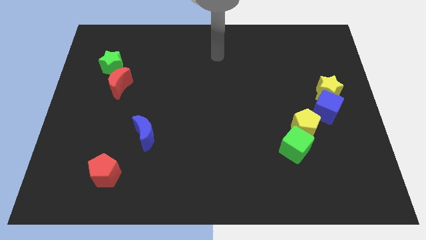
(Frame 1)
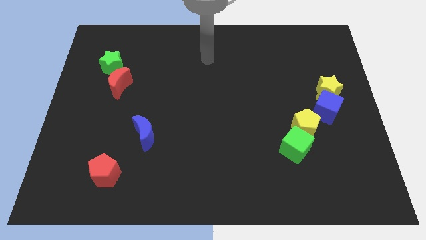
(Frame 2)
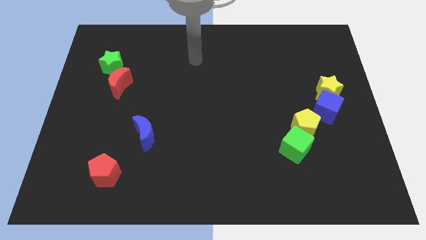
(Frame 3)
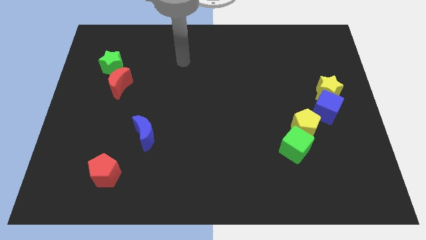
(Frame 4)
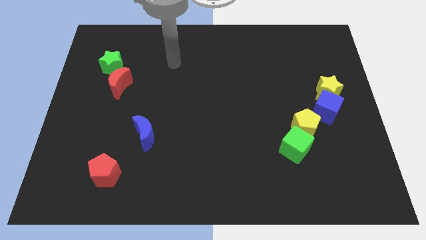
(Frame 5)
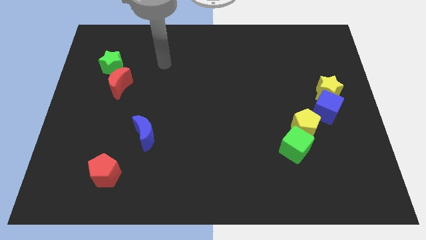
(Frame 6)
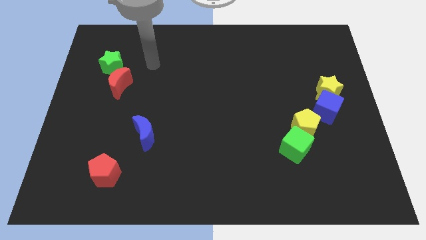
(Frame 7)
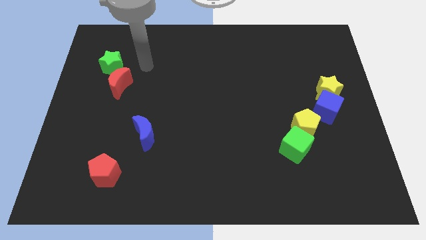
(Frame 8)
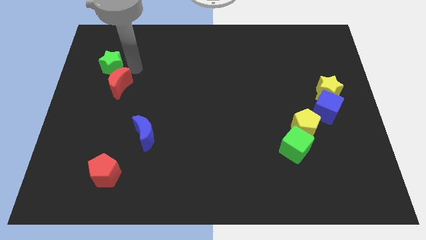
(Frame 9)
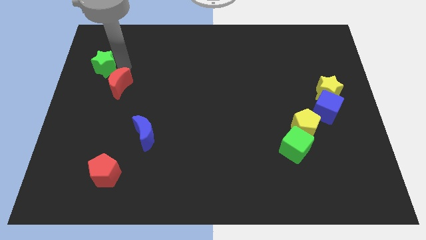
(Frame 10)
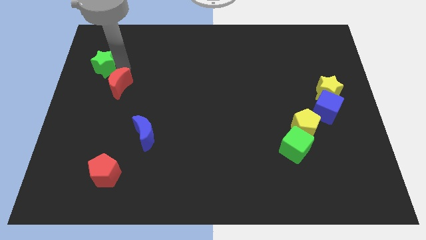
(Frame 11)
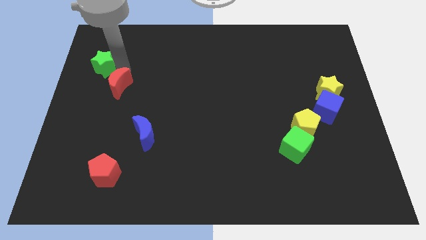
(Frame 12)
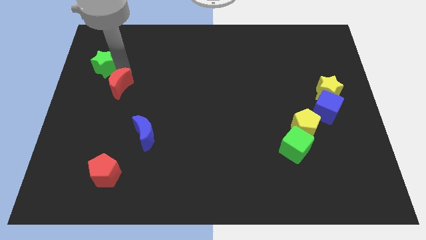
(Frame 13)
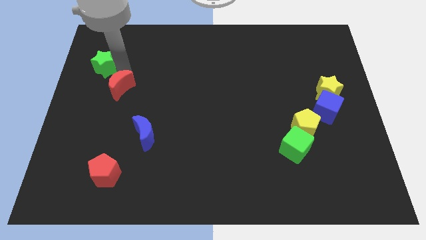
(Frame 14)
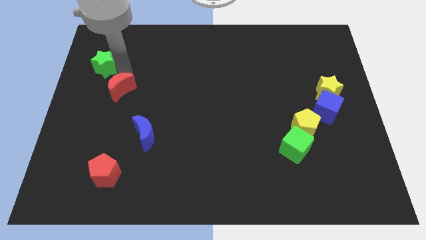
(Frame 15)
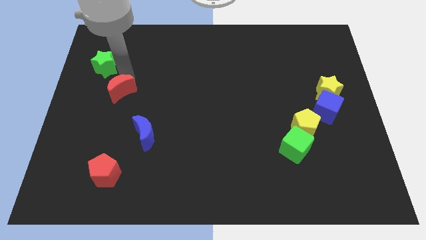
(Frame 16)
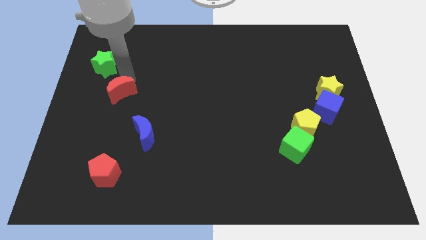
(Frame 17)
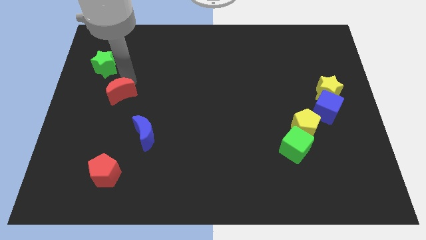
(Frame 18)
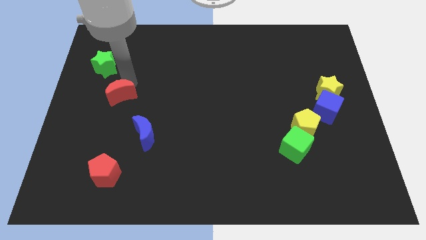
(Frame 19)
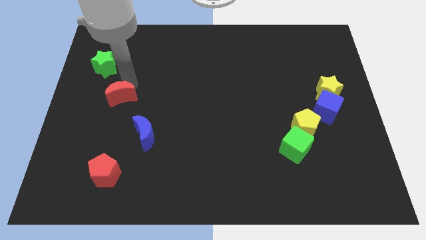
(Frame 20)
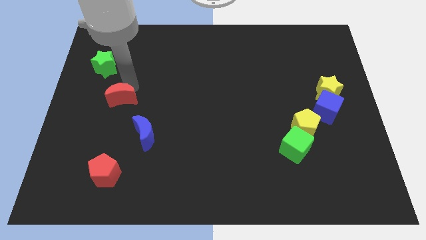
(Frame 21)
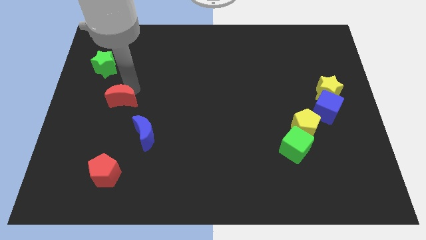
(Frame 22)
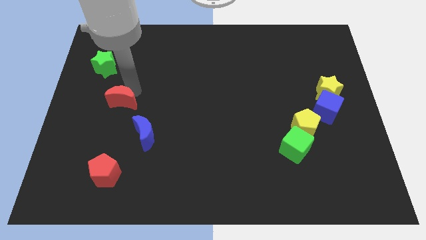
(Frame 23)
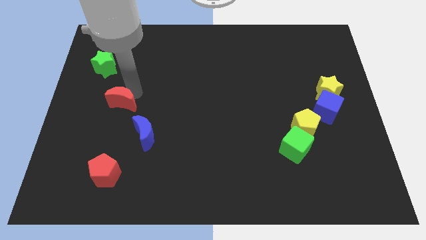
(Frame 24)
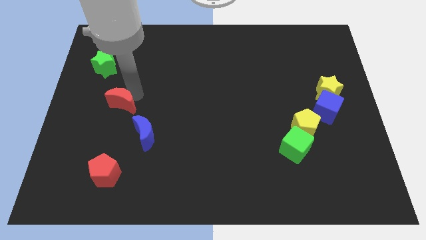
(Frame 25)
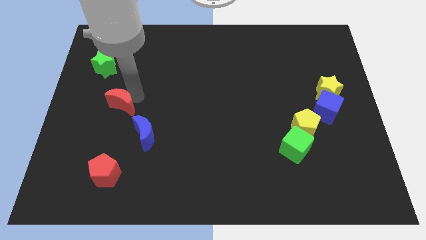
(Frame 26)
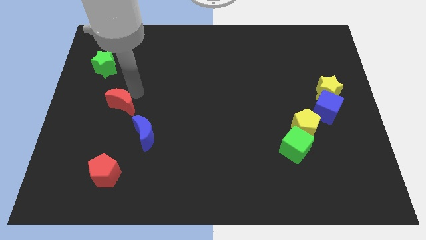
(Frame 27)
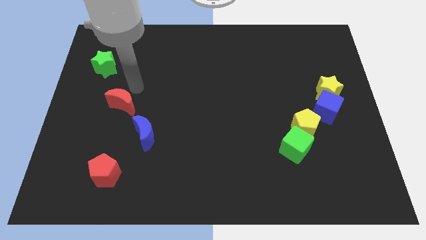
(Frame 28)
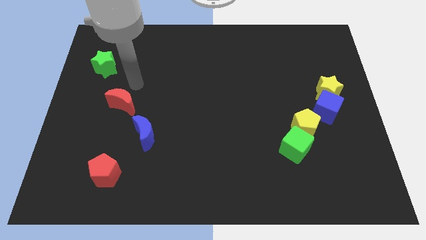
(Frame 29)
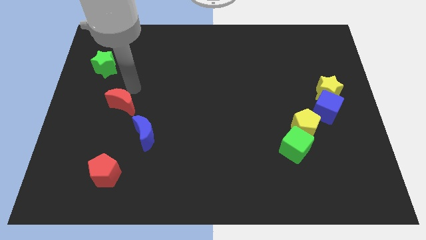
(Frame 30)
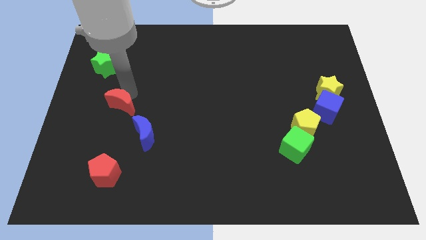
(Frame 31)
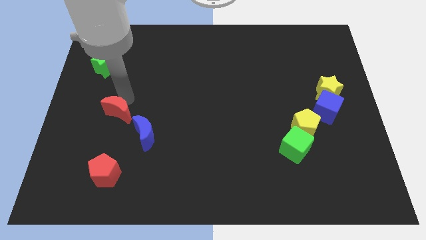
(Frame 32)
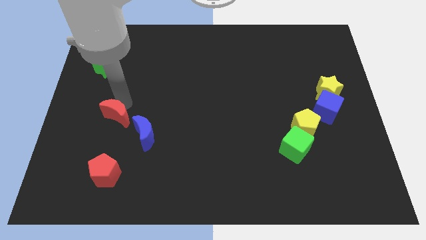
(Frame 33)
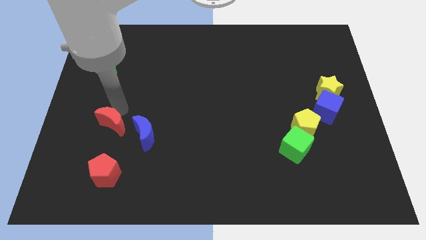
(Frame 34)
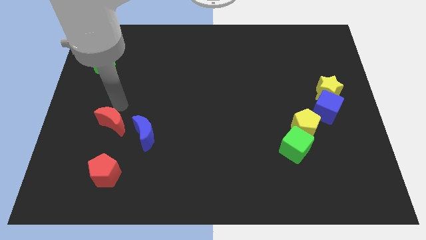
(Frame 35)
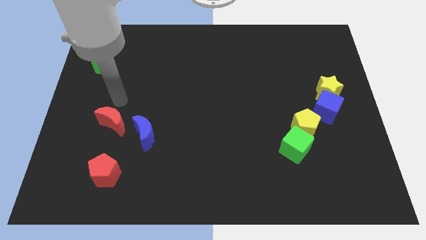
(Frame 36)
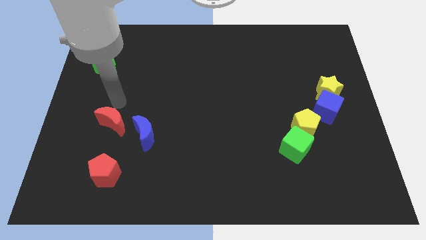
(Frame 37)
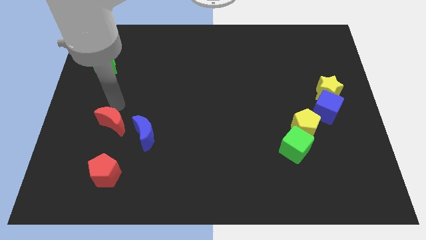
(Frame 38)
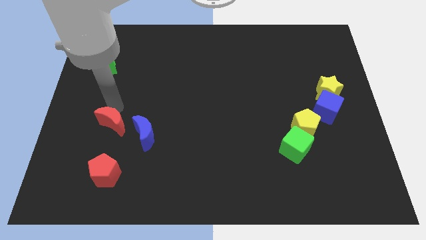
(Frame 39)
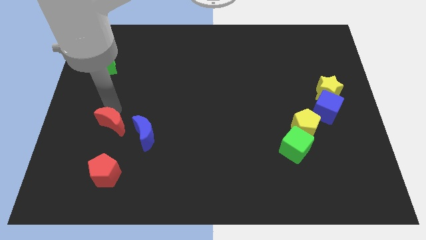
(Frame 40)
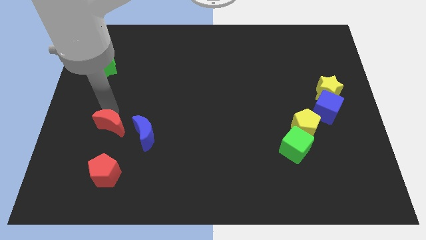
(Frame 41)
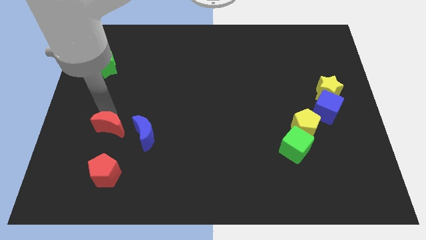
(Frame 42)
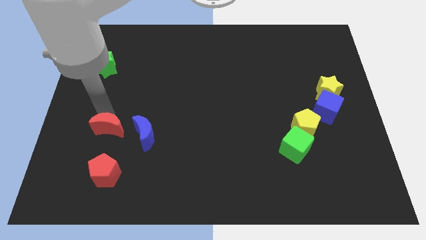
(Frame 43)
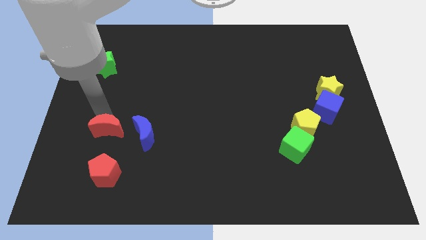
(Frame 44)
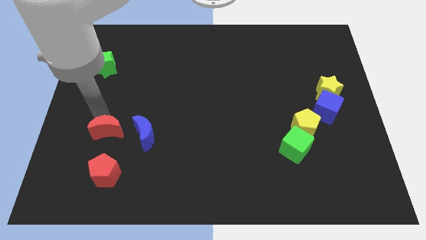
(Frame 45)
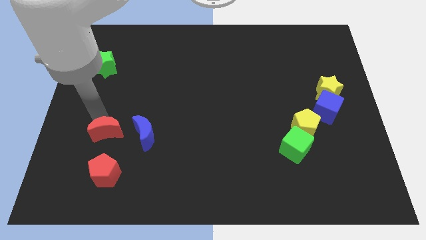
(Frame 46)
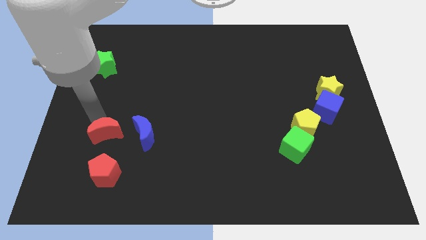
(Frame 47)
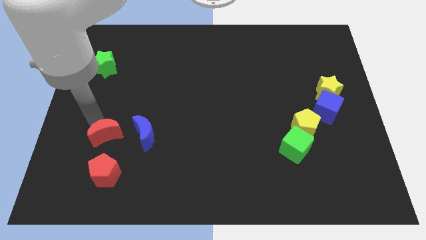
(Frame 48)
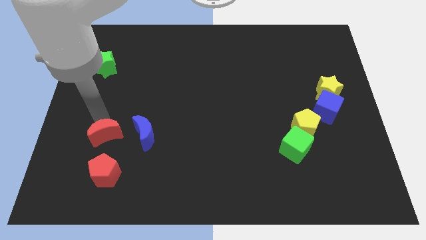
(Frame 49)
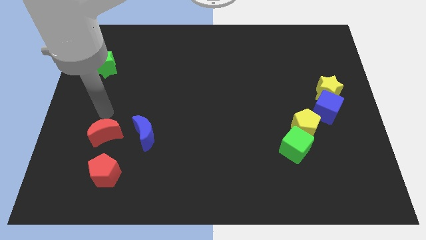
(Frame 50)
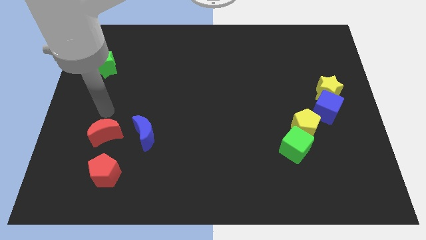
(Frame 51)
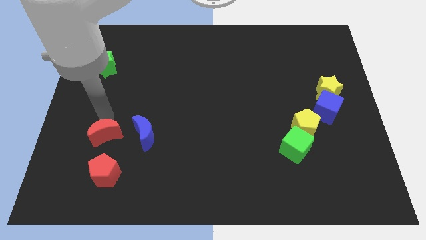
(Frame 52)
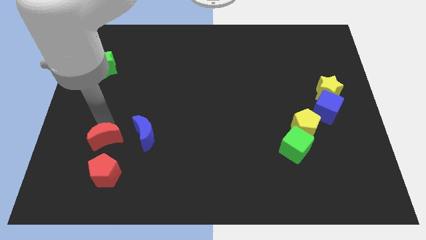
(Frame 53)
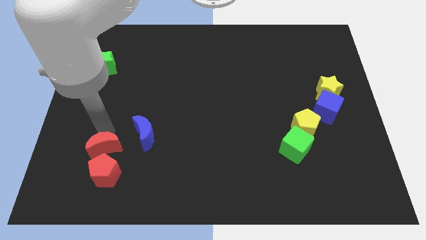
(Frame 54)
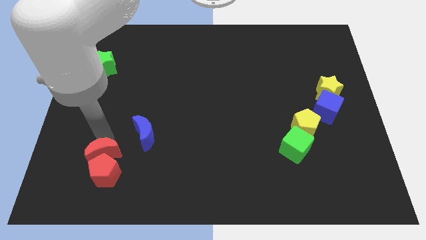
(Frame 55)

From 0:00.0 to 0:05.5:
push the red moon next to the red pentagon

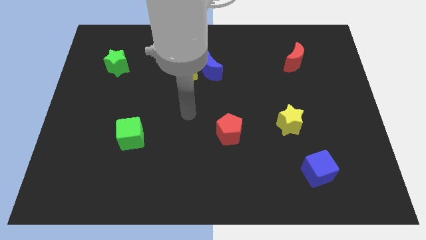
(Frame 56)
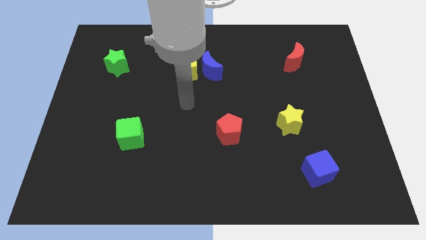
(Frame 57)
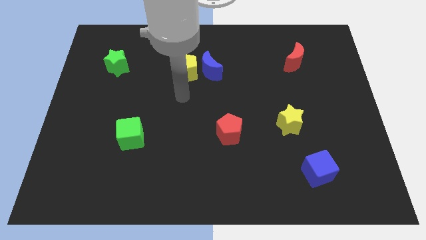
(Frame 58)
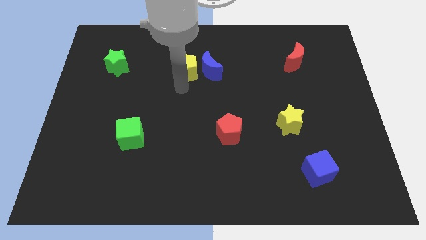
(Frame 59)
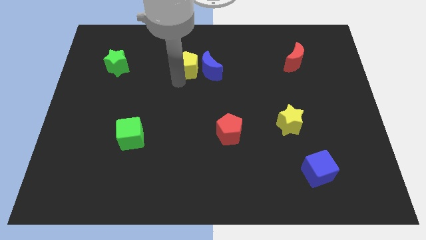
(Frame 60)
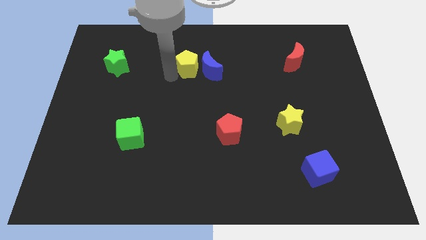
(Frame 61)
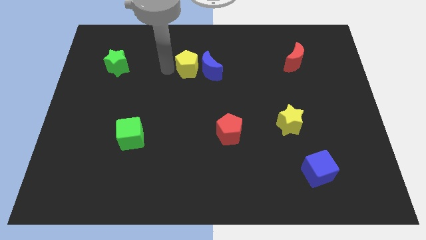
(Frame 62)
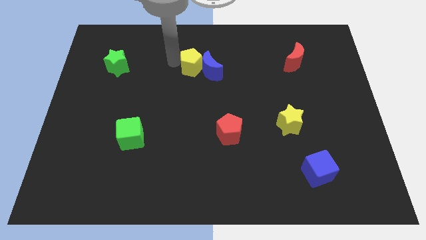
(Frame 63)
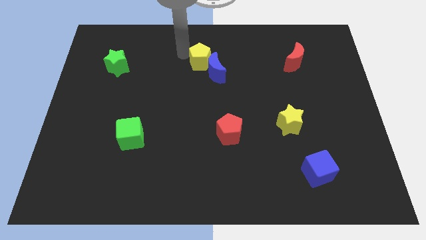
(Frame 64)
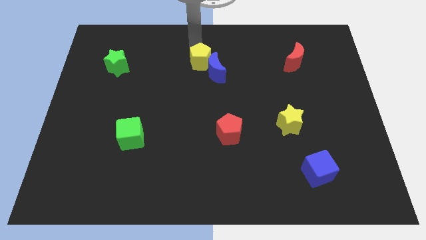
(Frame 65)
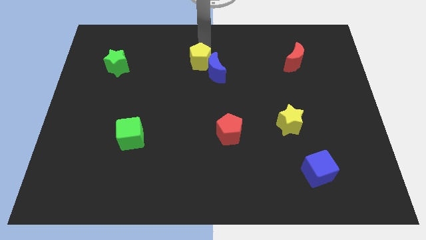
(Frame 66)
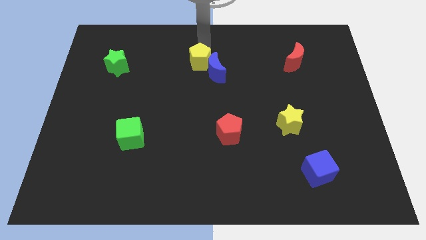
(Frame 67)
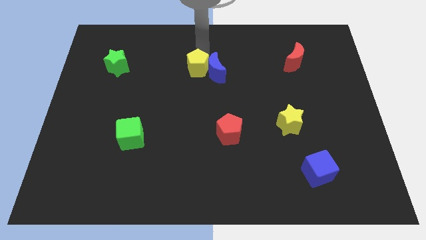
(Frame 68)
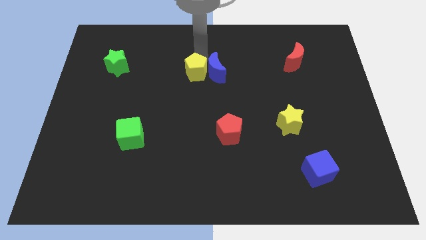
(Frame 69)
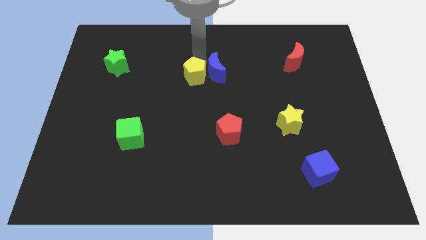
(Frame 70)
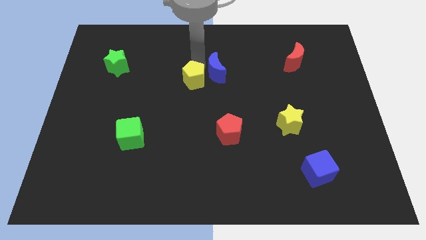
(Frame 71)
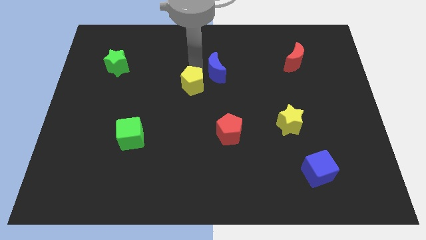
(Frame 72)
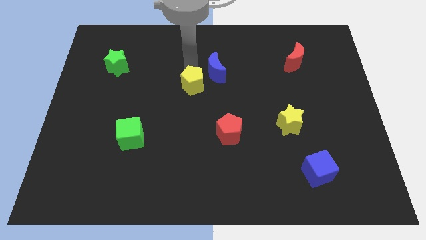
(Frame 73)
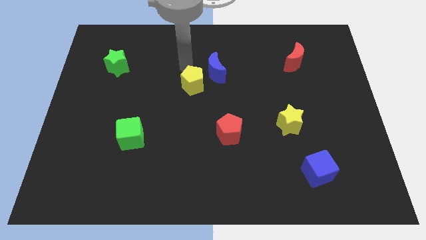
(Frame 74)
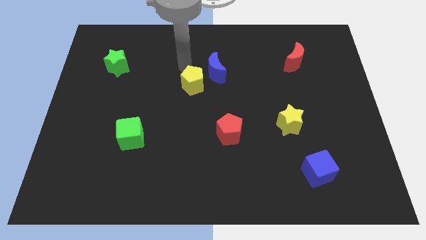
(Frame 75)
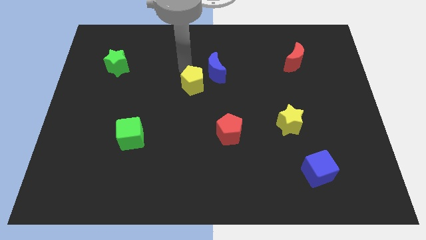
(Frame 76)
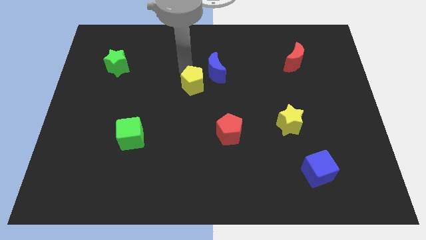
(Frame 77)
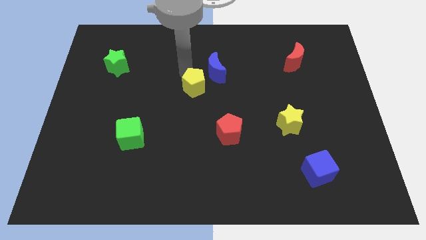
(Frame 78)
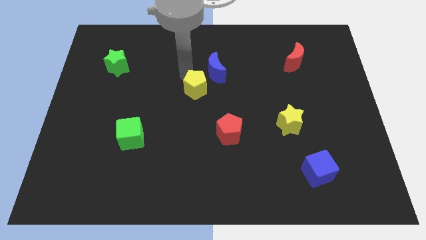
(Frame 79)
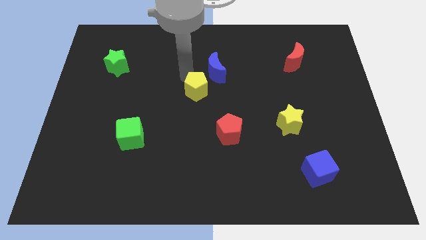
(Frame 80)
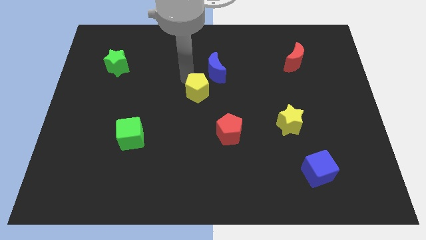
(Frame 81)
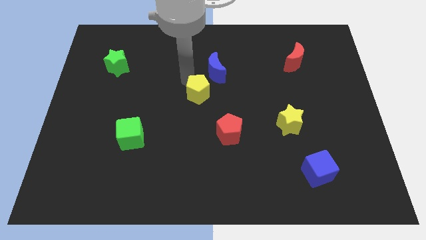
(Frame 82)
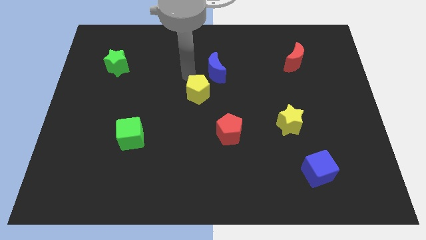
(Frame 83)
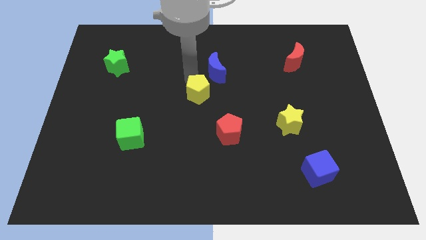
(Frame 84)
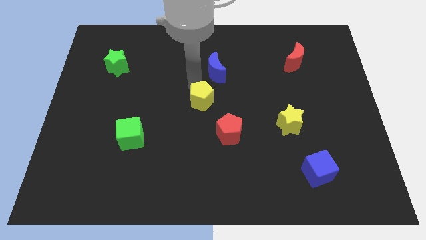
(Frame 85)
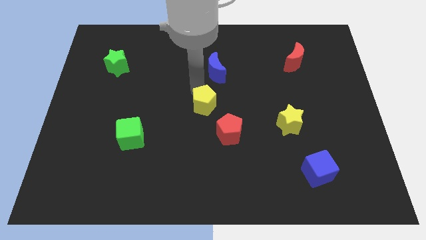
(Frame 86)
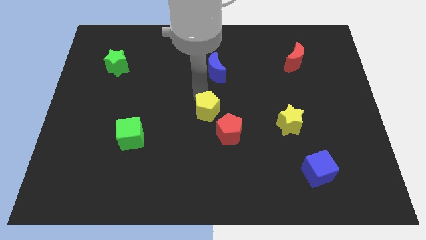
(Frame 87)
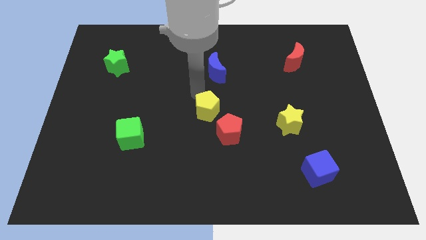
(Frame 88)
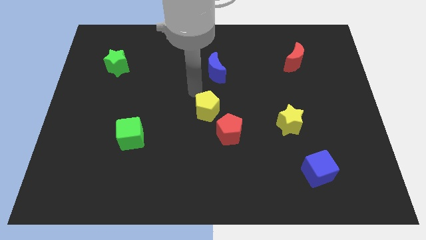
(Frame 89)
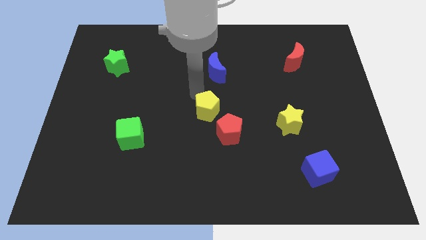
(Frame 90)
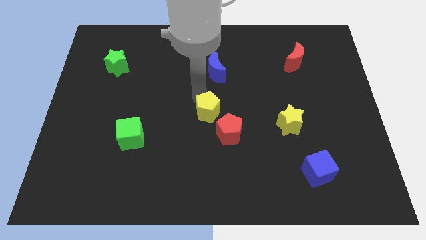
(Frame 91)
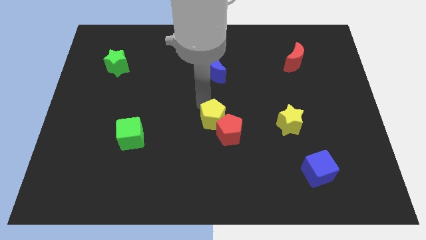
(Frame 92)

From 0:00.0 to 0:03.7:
put the yellow pentagon towards the red pentagon
